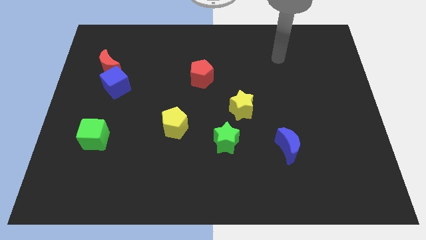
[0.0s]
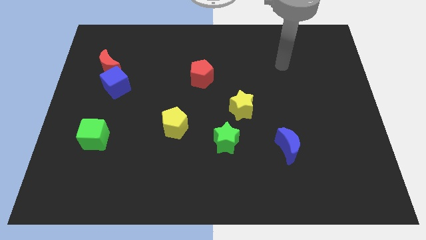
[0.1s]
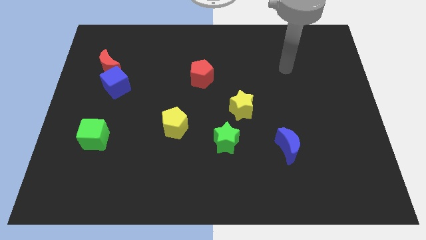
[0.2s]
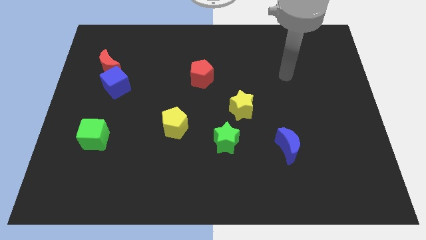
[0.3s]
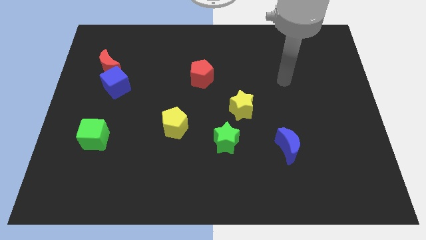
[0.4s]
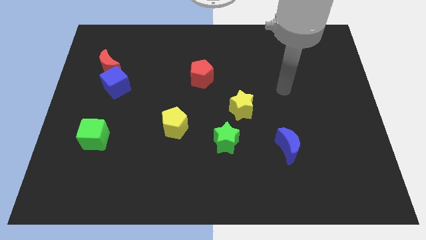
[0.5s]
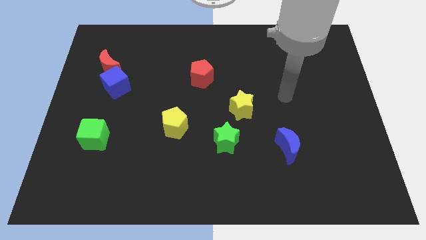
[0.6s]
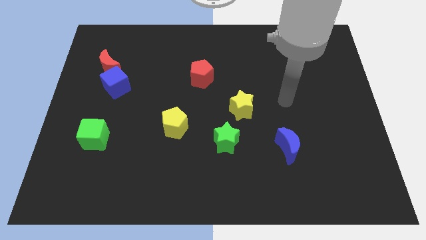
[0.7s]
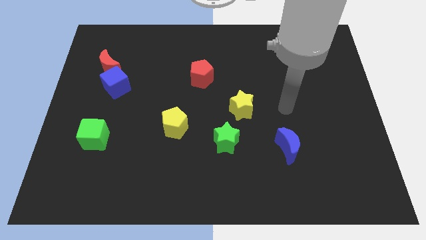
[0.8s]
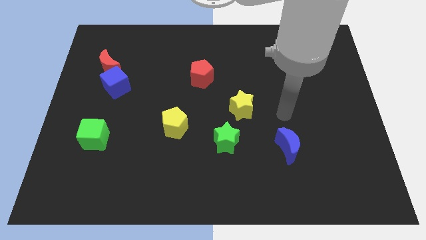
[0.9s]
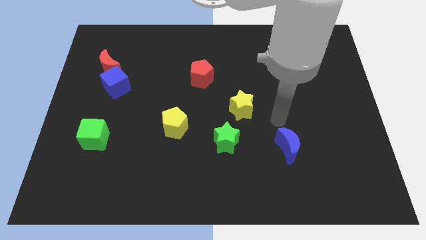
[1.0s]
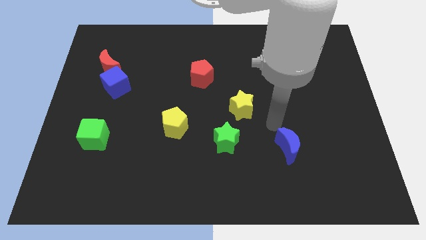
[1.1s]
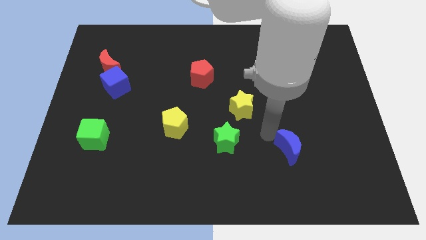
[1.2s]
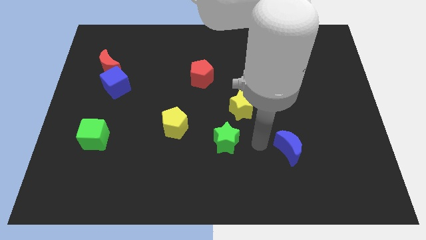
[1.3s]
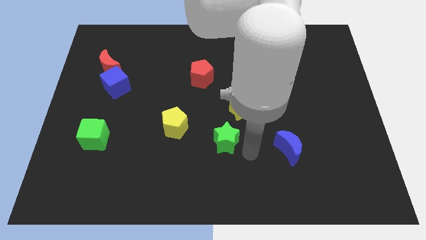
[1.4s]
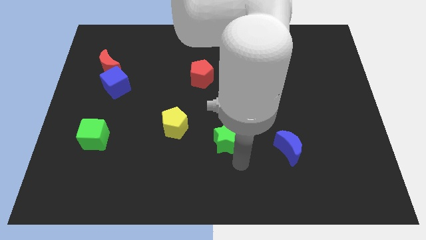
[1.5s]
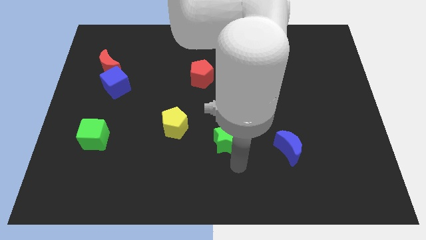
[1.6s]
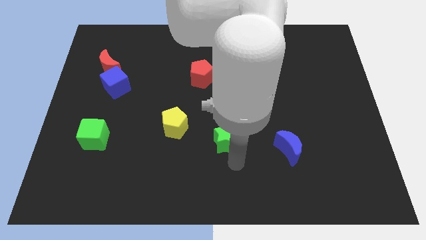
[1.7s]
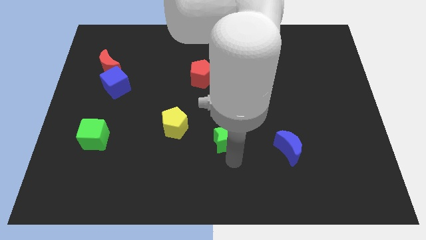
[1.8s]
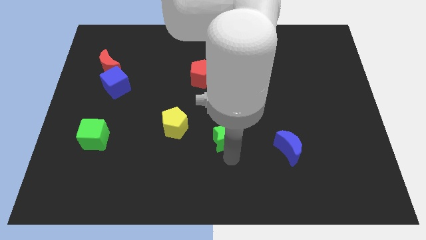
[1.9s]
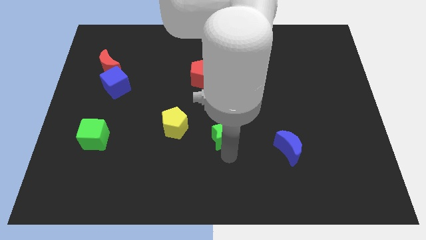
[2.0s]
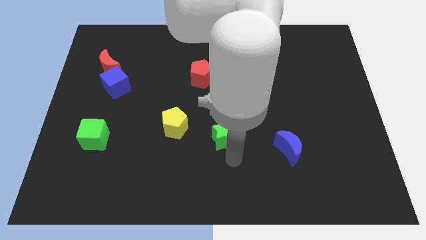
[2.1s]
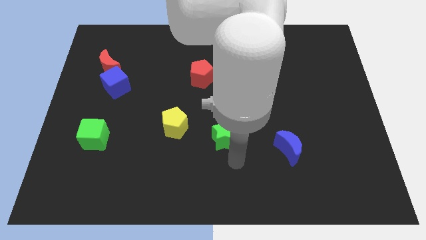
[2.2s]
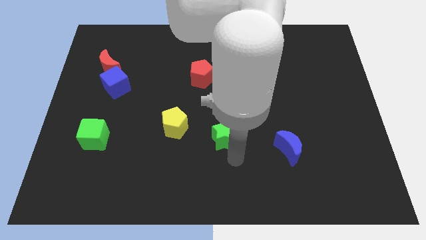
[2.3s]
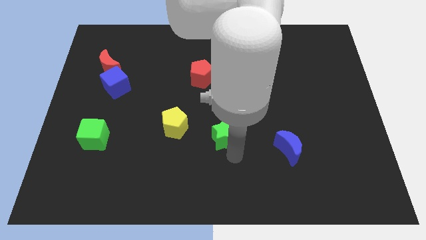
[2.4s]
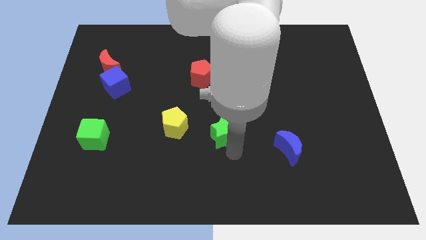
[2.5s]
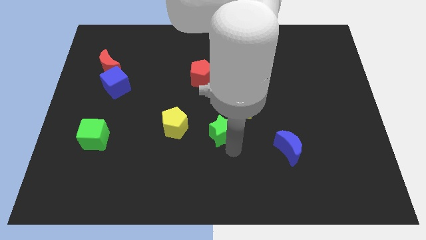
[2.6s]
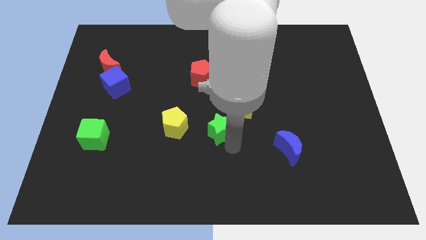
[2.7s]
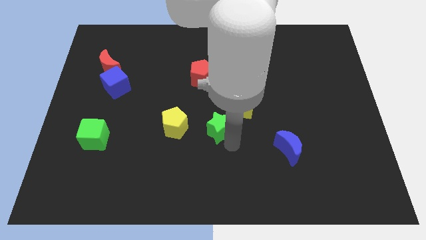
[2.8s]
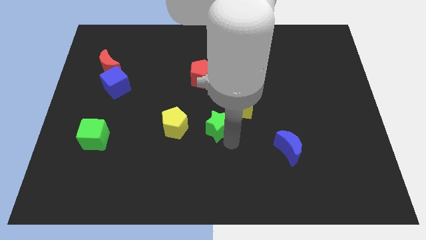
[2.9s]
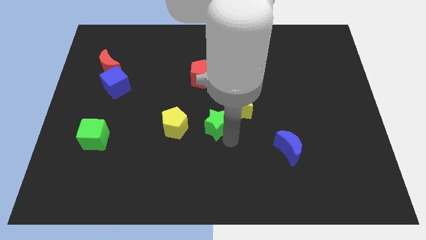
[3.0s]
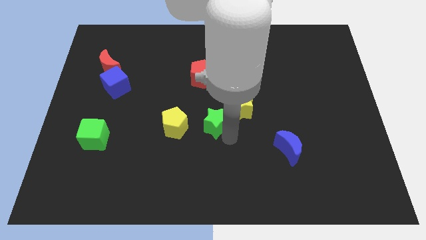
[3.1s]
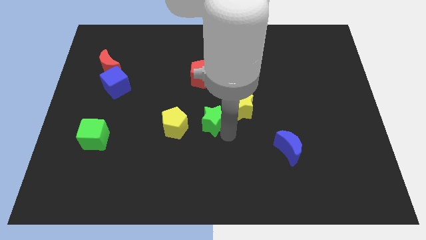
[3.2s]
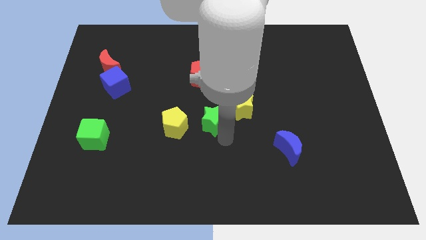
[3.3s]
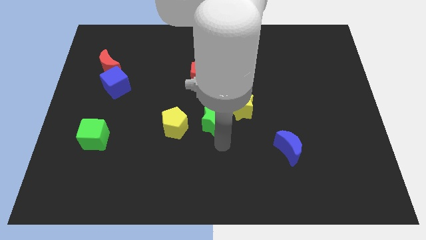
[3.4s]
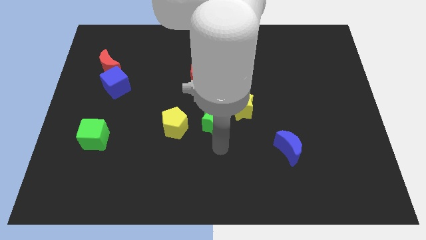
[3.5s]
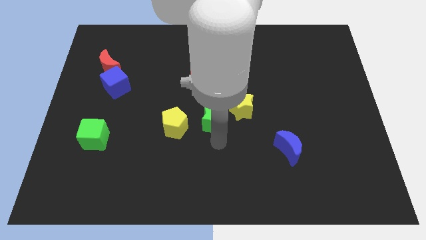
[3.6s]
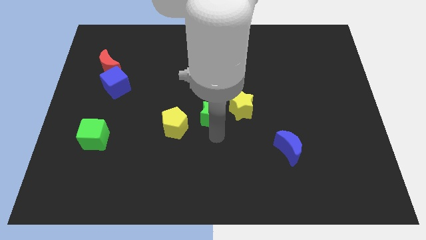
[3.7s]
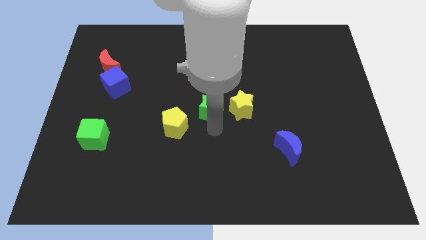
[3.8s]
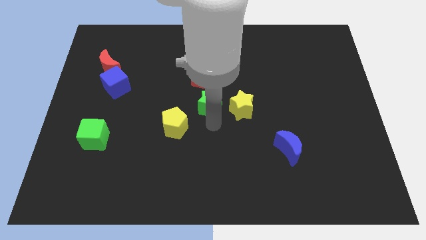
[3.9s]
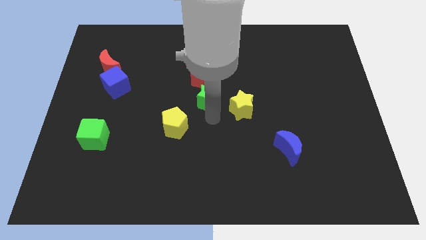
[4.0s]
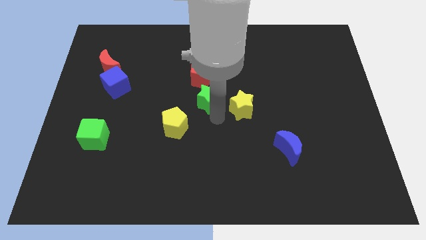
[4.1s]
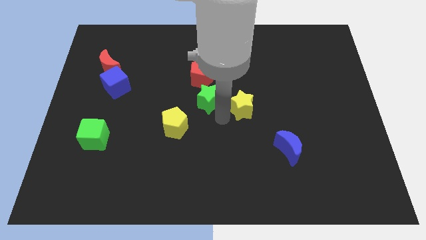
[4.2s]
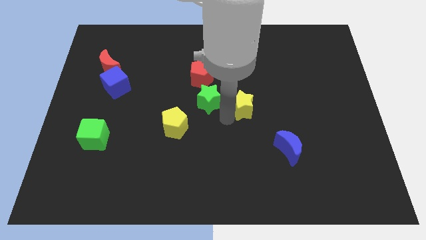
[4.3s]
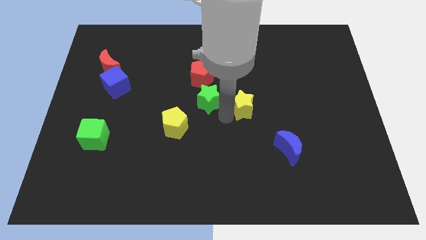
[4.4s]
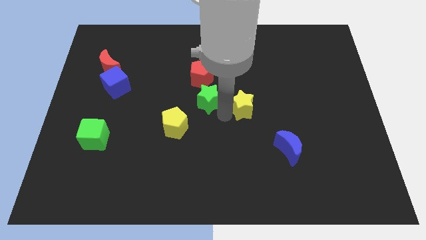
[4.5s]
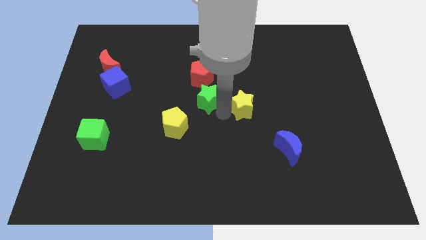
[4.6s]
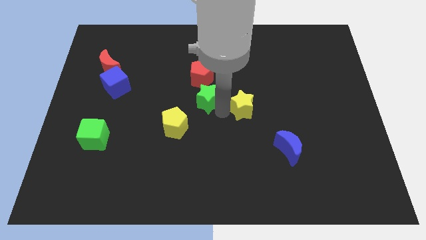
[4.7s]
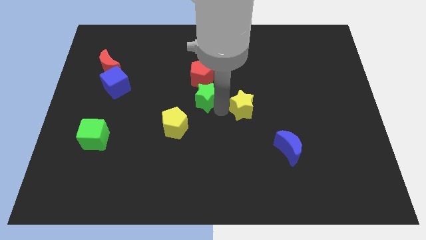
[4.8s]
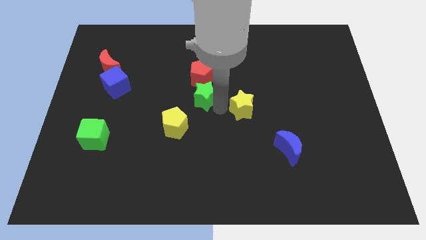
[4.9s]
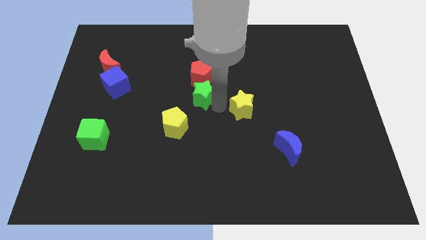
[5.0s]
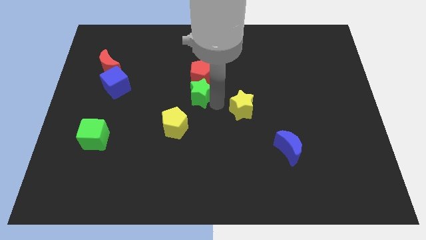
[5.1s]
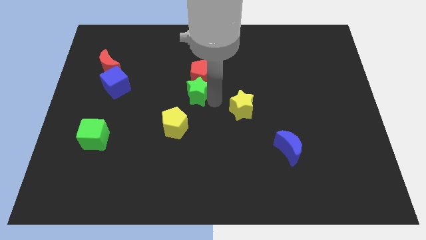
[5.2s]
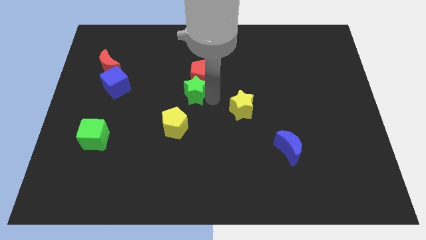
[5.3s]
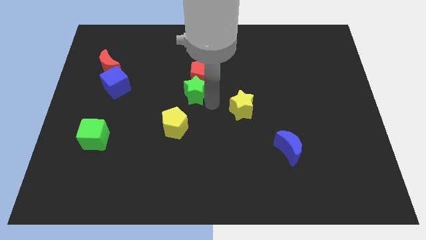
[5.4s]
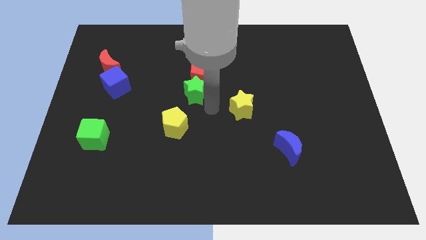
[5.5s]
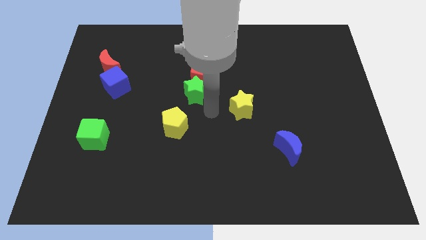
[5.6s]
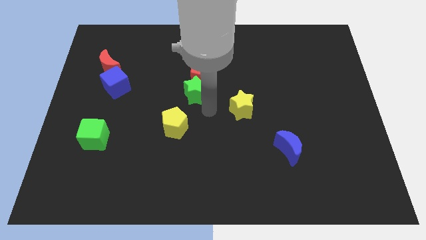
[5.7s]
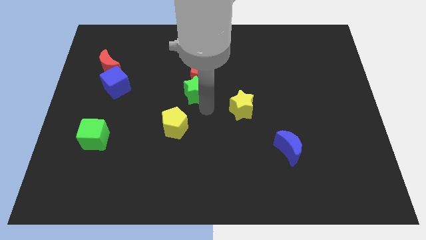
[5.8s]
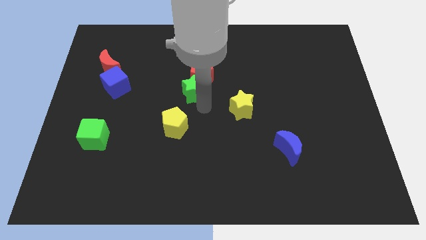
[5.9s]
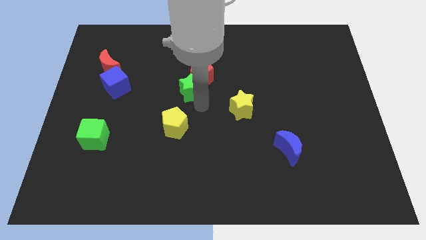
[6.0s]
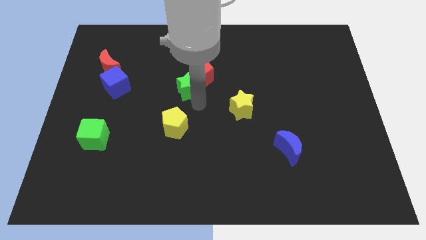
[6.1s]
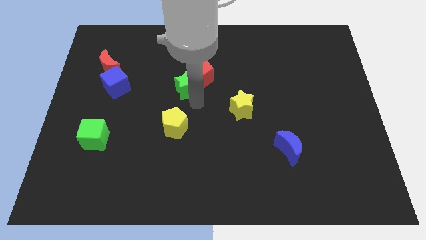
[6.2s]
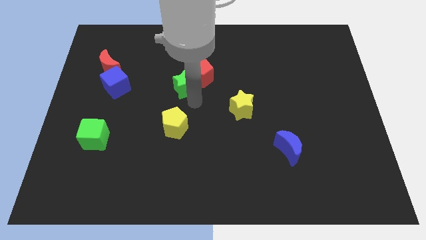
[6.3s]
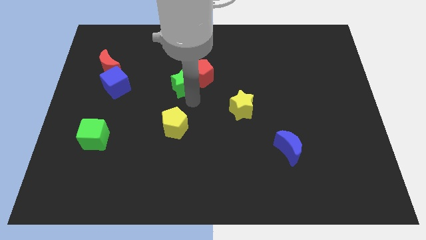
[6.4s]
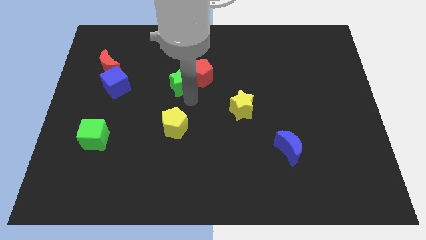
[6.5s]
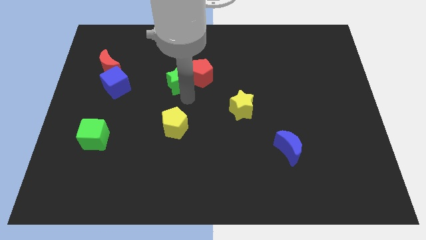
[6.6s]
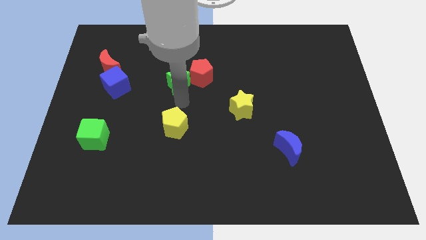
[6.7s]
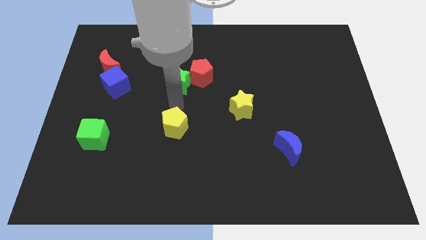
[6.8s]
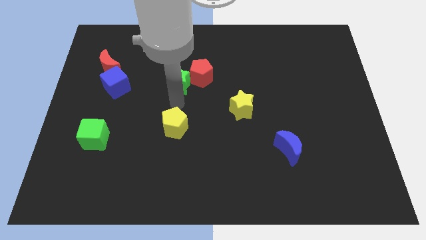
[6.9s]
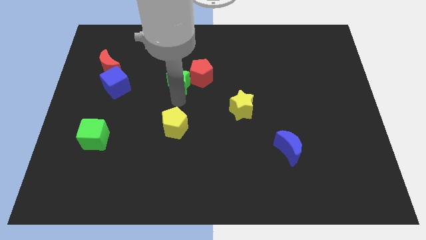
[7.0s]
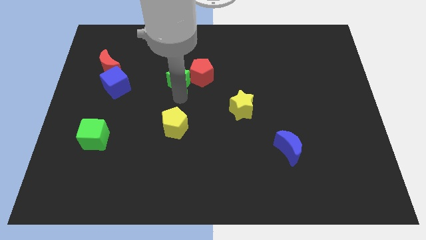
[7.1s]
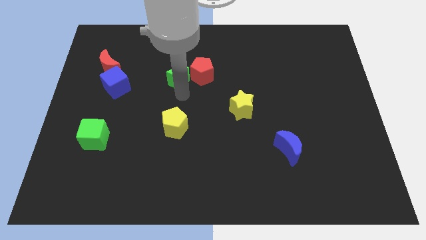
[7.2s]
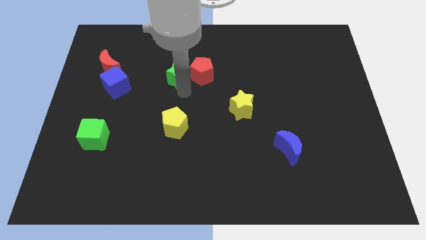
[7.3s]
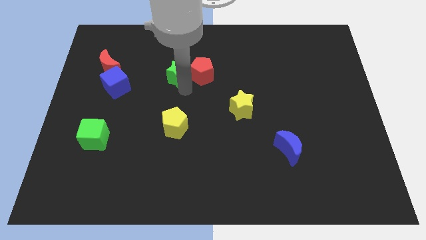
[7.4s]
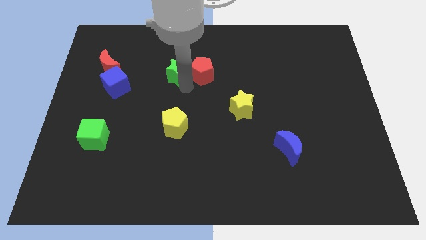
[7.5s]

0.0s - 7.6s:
slide the green star diagonally up and to the left of the red pentagon
